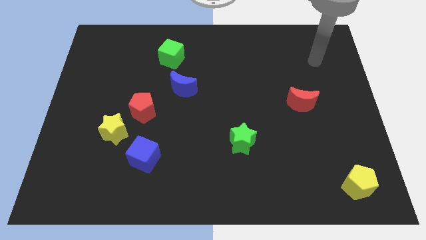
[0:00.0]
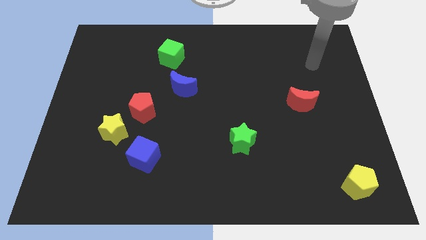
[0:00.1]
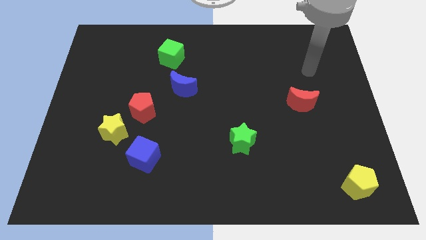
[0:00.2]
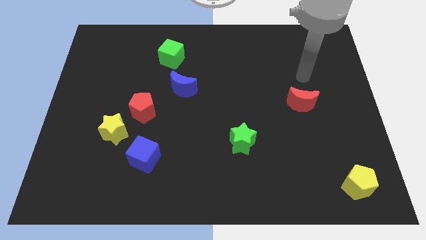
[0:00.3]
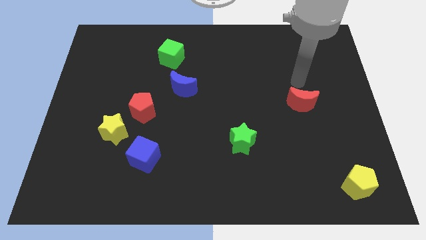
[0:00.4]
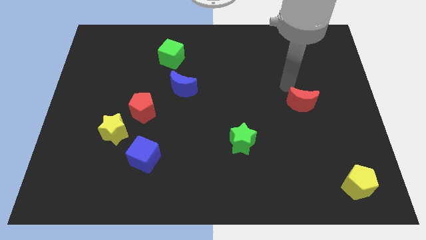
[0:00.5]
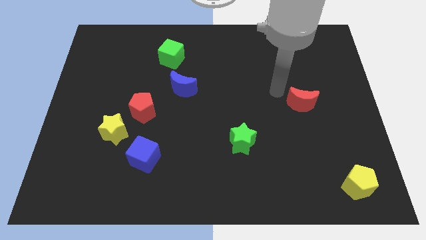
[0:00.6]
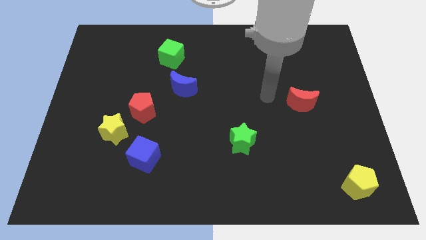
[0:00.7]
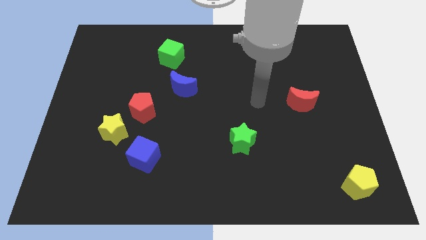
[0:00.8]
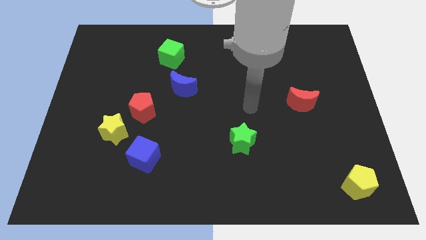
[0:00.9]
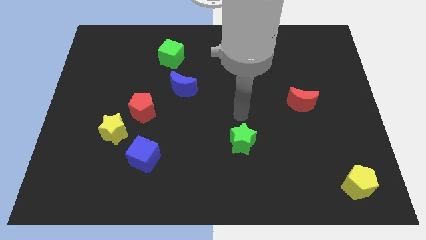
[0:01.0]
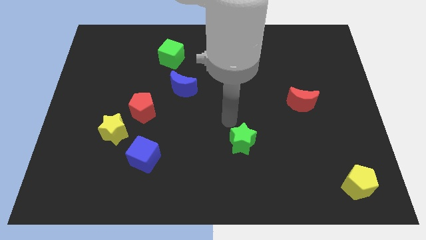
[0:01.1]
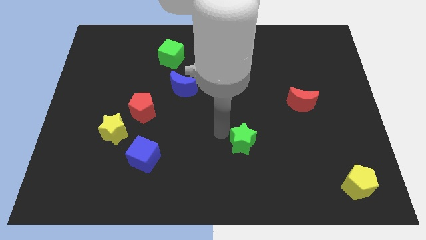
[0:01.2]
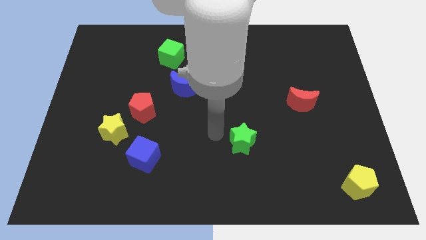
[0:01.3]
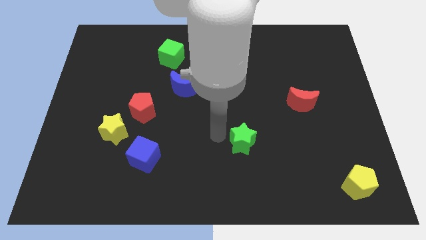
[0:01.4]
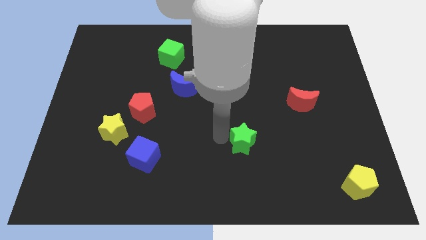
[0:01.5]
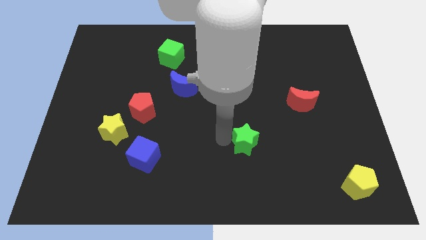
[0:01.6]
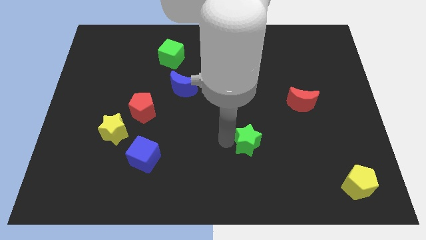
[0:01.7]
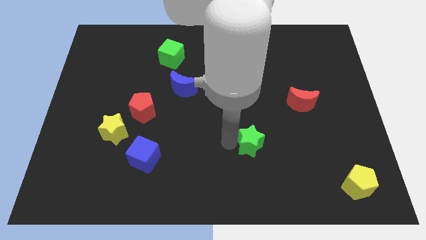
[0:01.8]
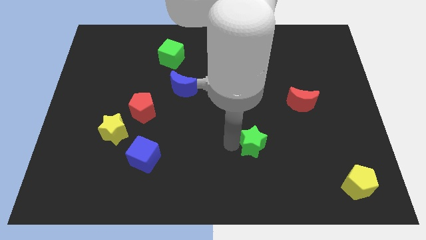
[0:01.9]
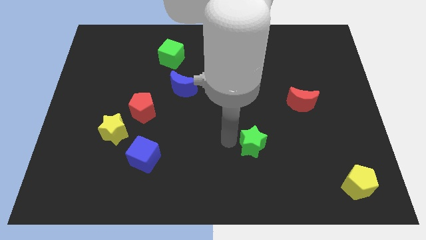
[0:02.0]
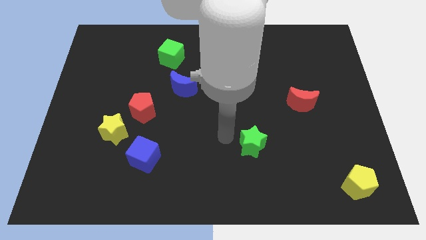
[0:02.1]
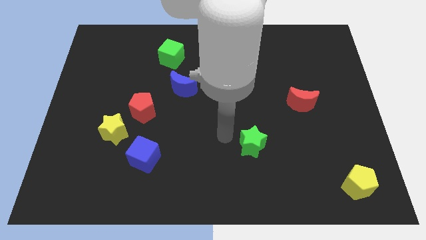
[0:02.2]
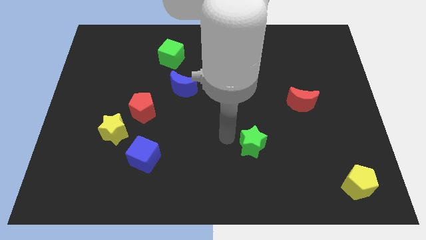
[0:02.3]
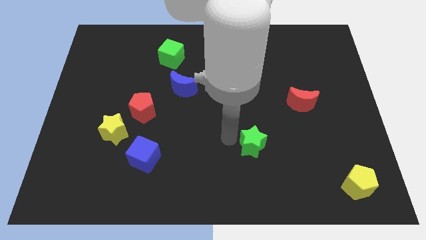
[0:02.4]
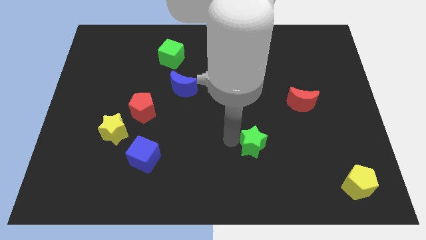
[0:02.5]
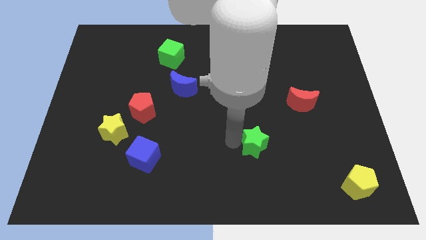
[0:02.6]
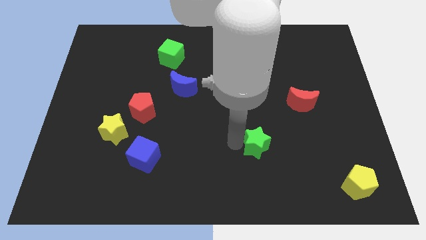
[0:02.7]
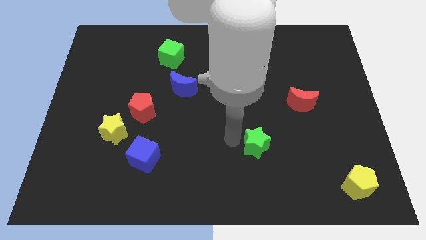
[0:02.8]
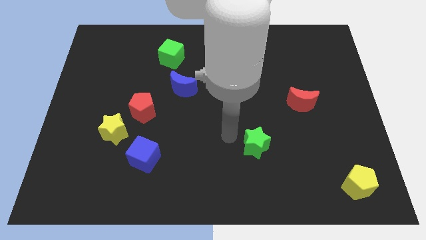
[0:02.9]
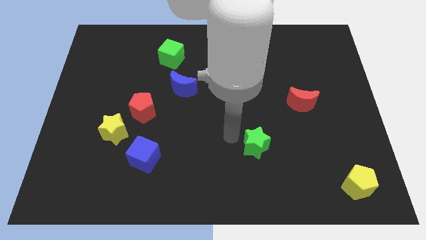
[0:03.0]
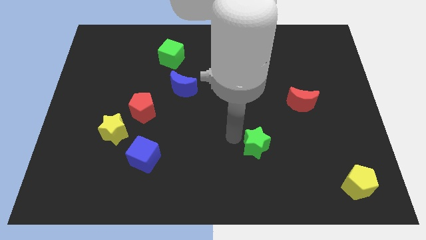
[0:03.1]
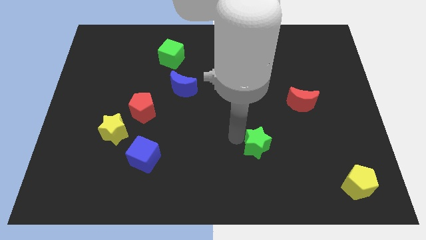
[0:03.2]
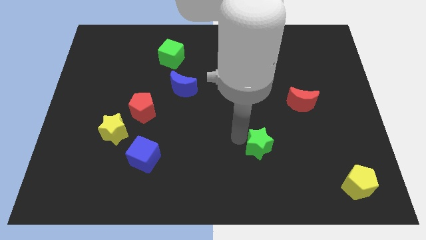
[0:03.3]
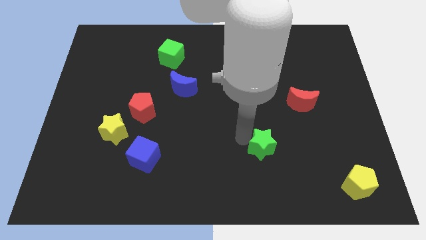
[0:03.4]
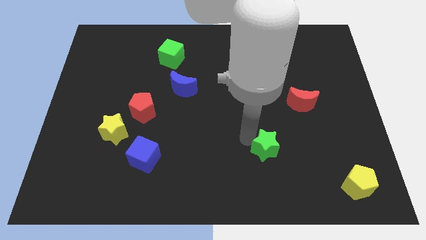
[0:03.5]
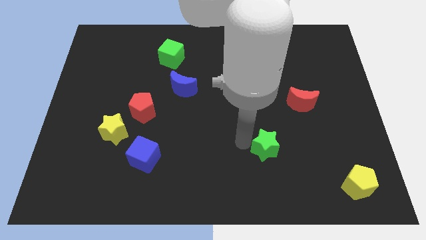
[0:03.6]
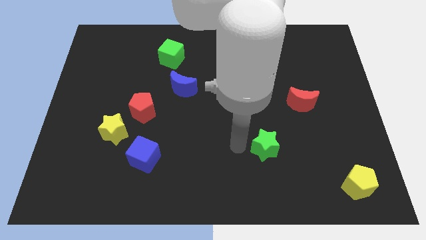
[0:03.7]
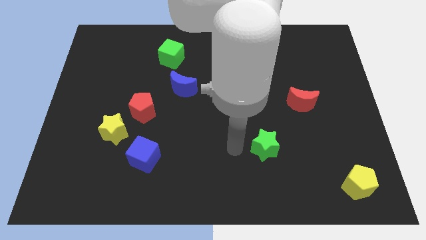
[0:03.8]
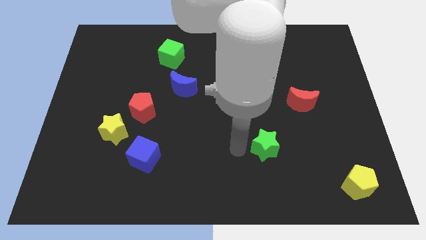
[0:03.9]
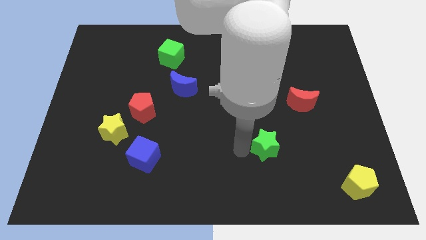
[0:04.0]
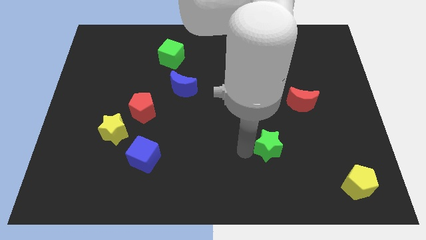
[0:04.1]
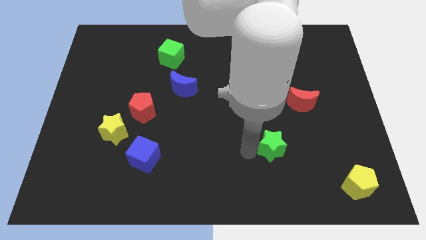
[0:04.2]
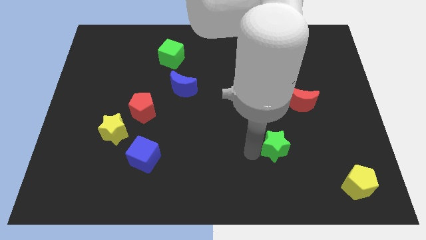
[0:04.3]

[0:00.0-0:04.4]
slide the green star to the right slightly

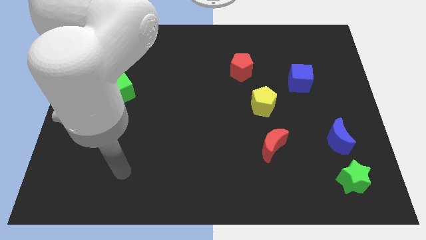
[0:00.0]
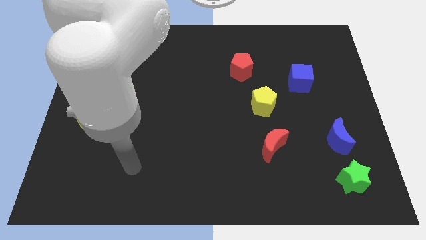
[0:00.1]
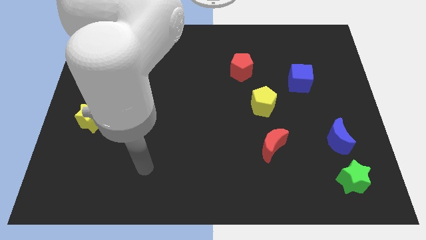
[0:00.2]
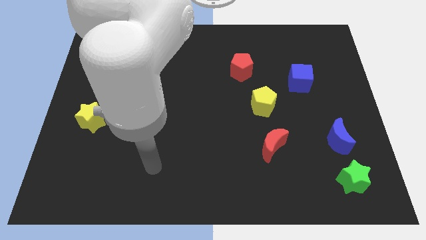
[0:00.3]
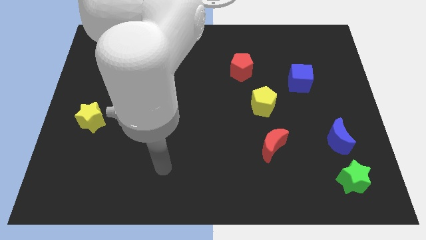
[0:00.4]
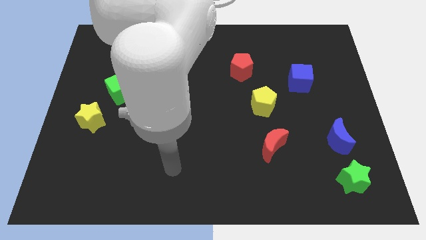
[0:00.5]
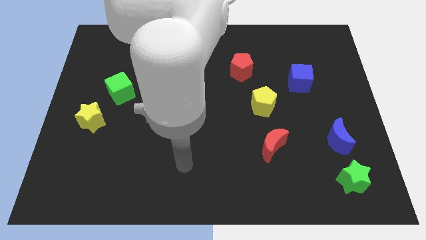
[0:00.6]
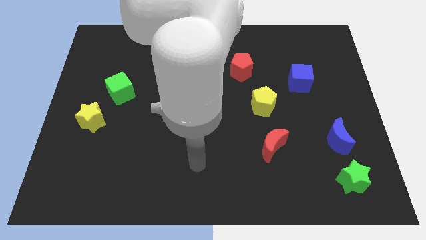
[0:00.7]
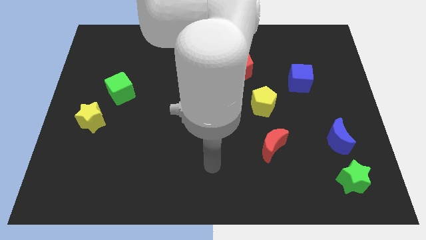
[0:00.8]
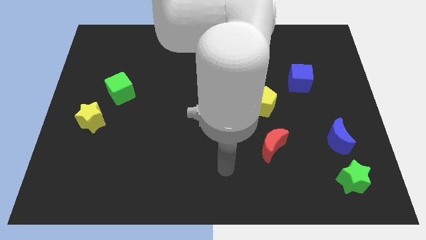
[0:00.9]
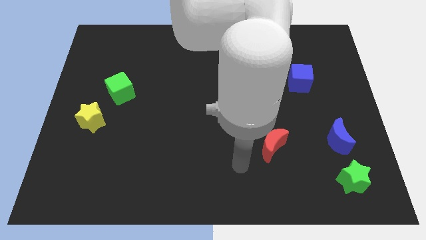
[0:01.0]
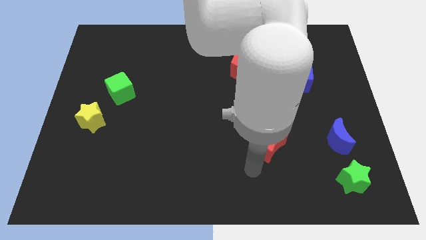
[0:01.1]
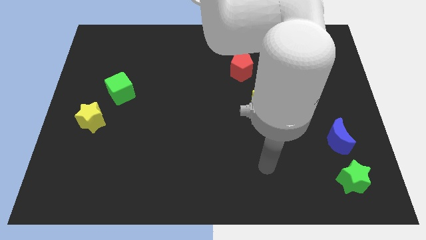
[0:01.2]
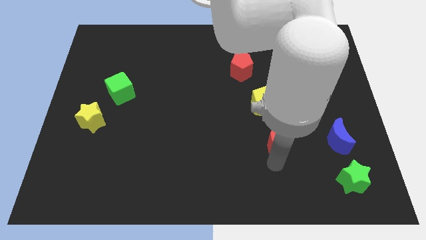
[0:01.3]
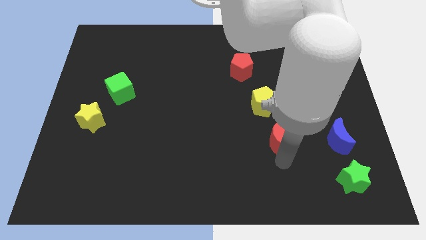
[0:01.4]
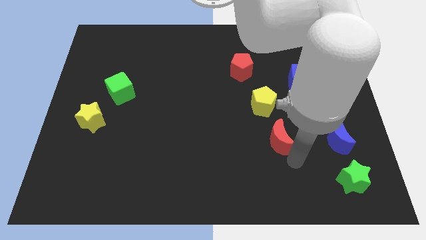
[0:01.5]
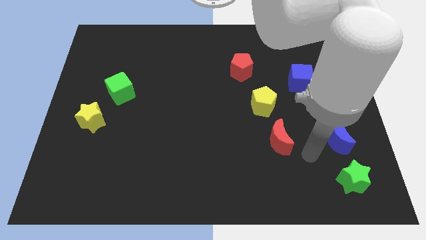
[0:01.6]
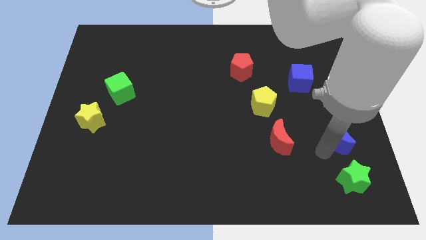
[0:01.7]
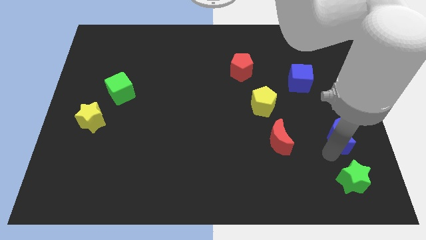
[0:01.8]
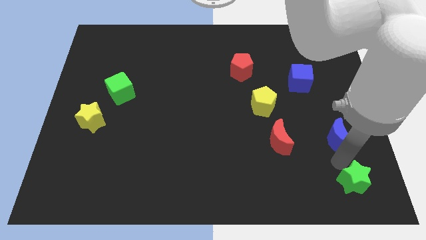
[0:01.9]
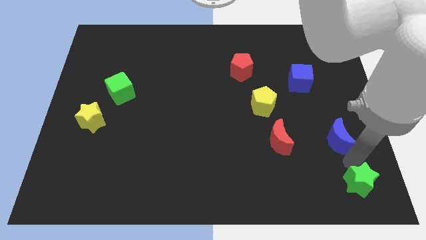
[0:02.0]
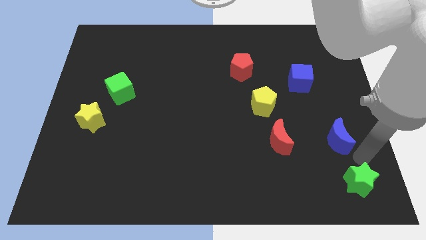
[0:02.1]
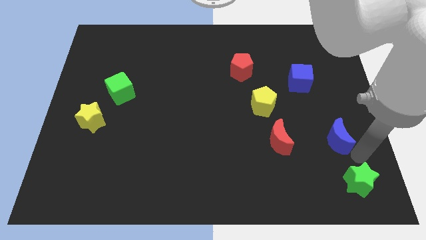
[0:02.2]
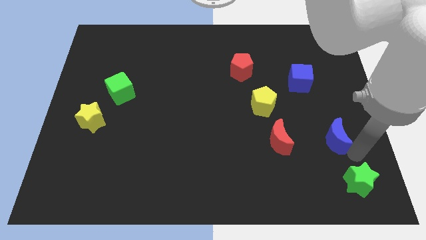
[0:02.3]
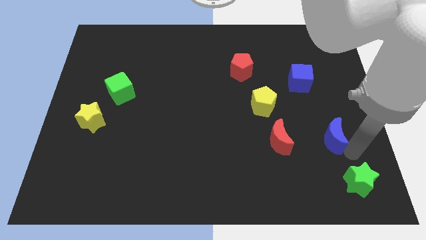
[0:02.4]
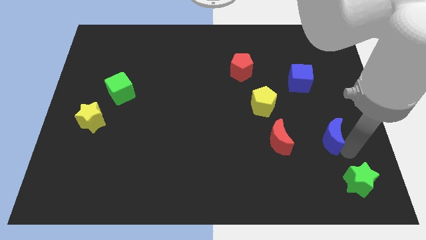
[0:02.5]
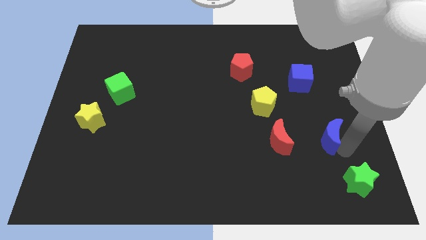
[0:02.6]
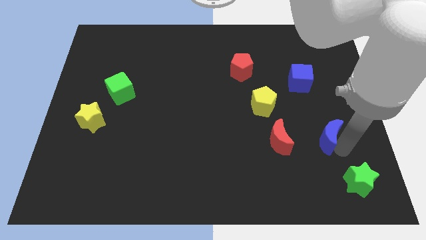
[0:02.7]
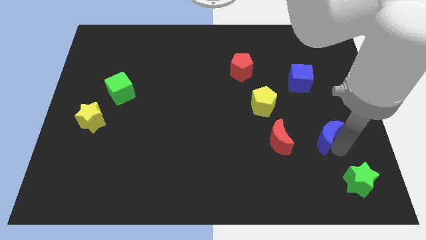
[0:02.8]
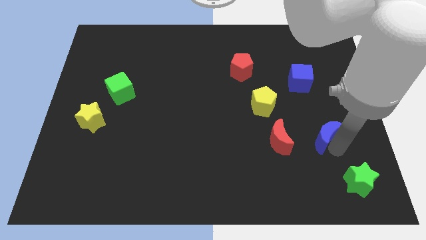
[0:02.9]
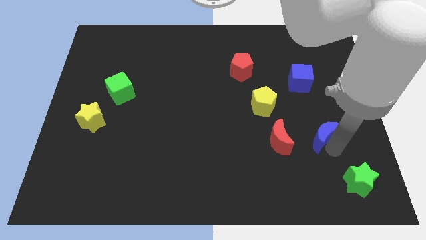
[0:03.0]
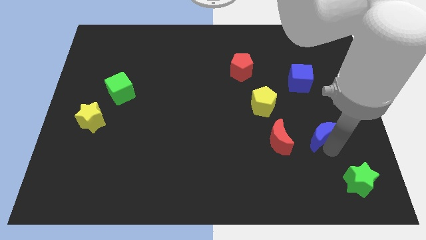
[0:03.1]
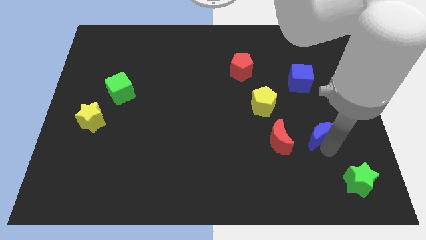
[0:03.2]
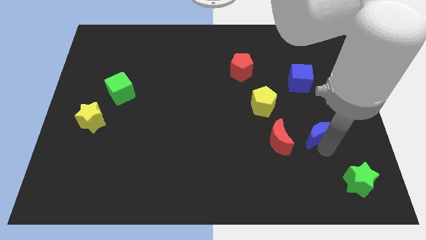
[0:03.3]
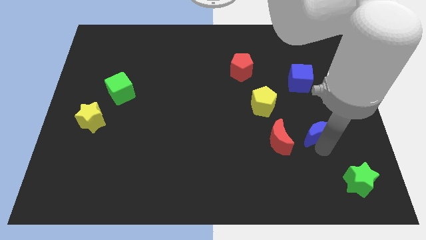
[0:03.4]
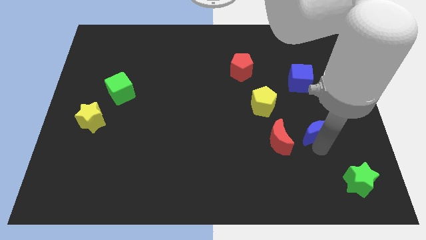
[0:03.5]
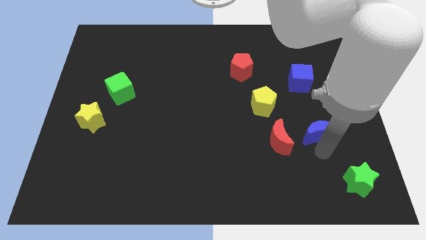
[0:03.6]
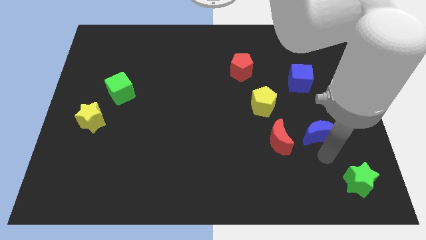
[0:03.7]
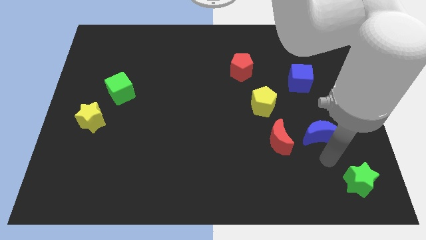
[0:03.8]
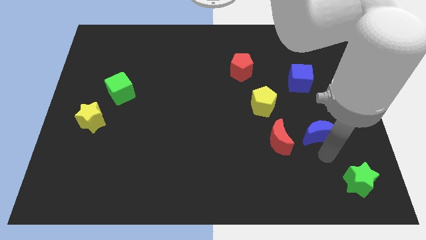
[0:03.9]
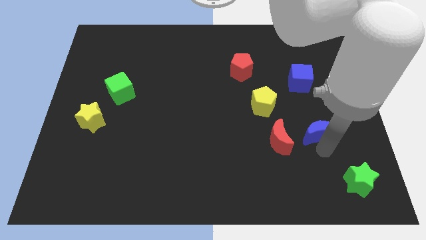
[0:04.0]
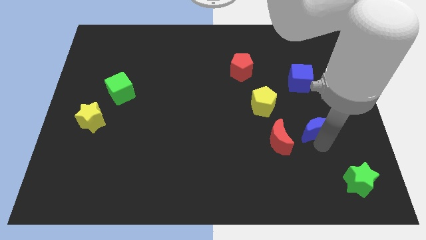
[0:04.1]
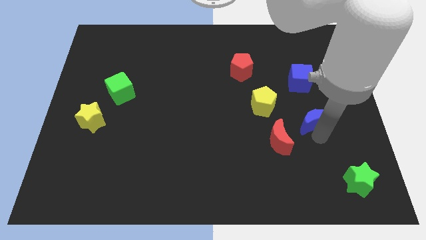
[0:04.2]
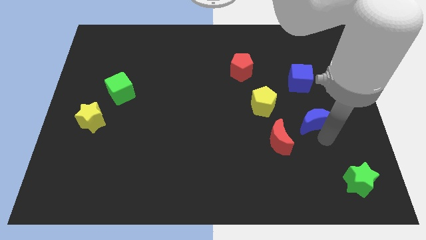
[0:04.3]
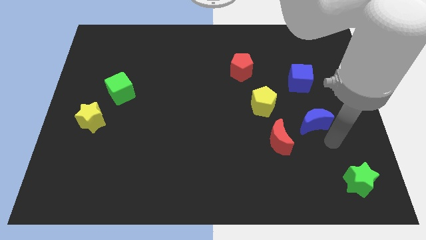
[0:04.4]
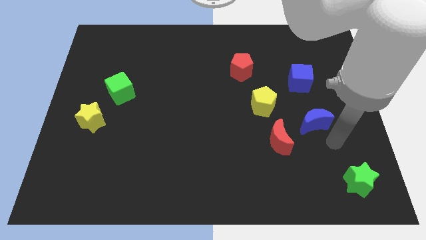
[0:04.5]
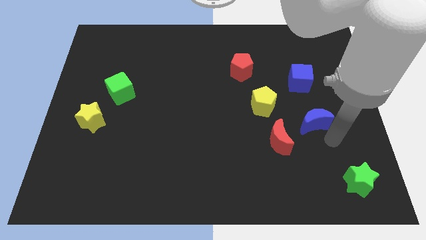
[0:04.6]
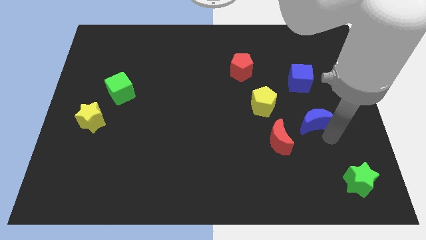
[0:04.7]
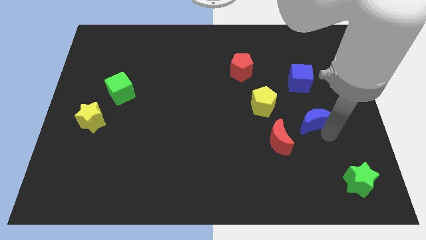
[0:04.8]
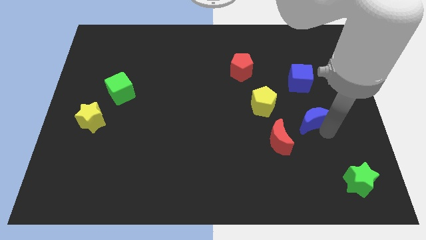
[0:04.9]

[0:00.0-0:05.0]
slide the blue moon somewhat upwards and left
